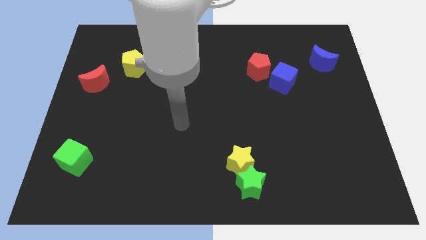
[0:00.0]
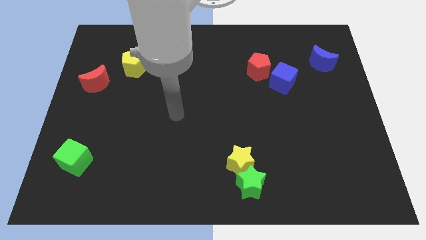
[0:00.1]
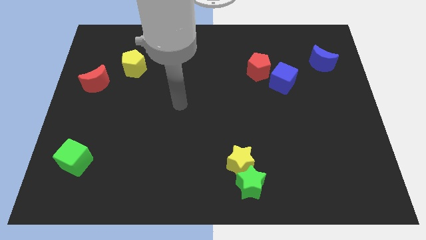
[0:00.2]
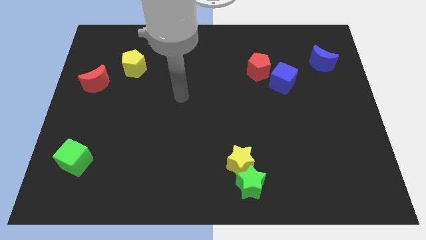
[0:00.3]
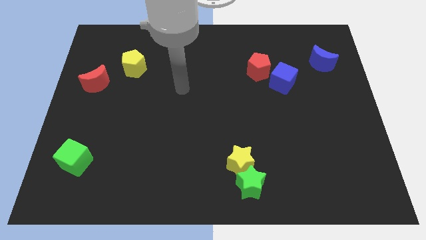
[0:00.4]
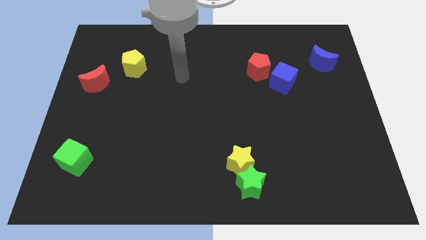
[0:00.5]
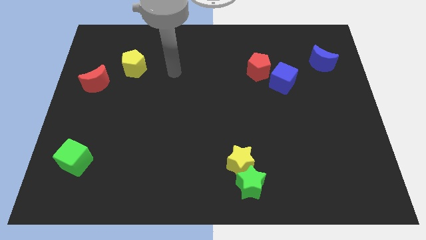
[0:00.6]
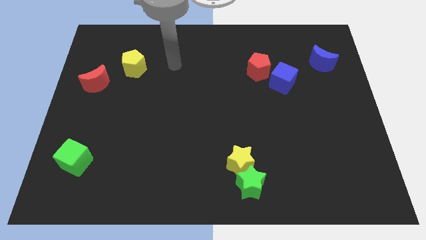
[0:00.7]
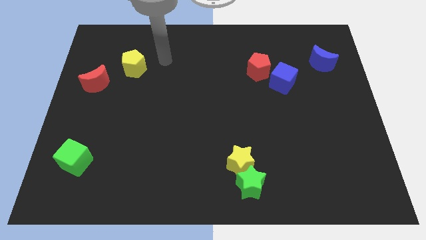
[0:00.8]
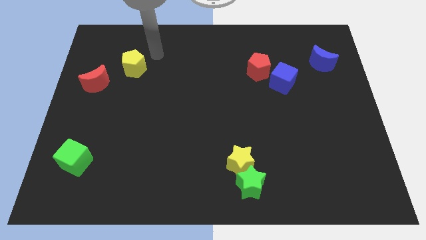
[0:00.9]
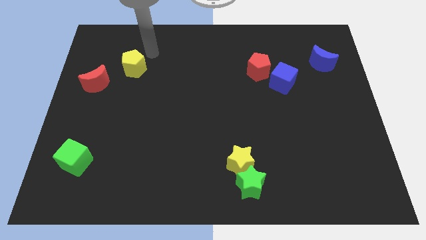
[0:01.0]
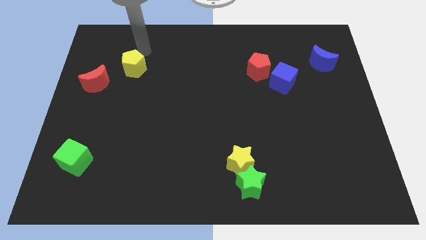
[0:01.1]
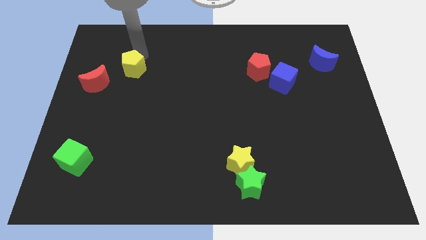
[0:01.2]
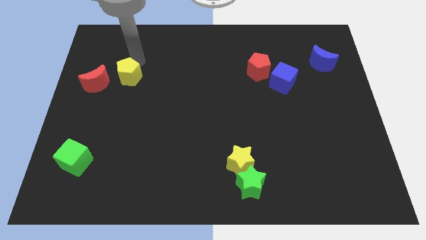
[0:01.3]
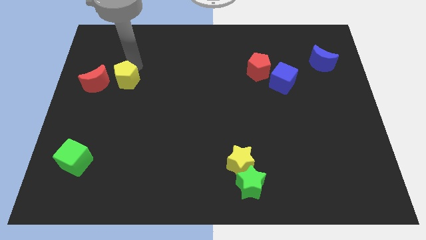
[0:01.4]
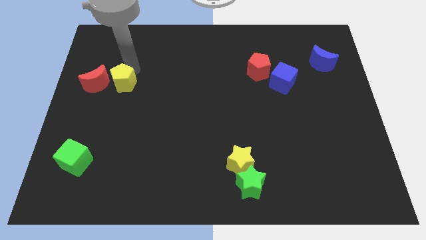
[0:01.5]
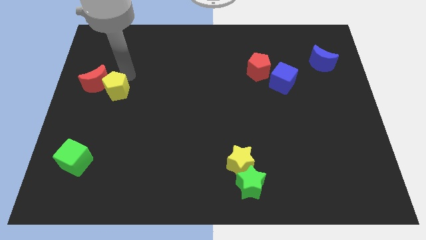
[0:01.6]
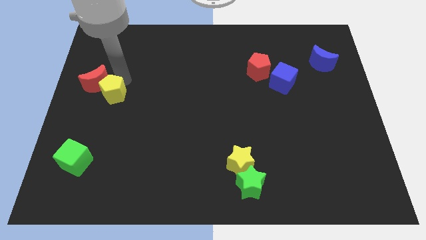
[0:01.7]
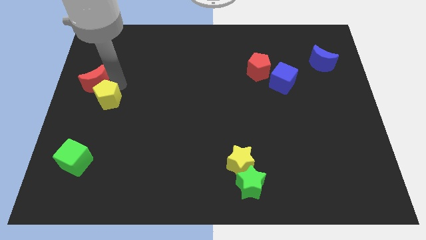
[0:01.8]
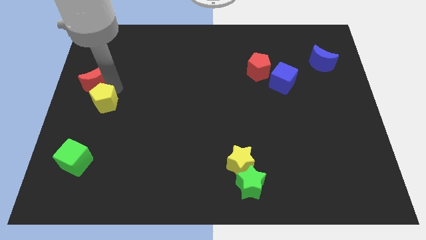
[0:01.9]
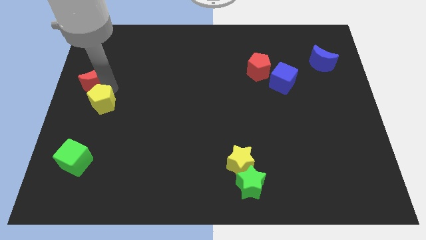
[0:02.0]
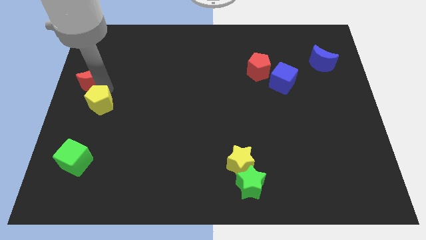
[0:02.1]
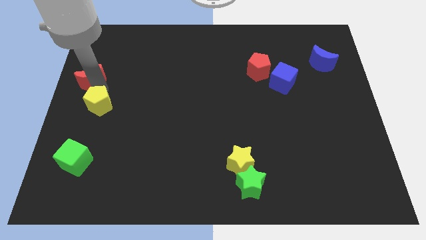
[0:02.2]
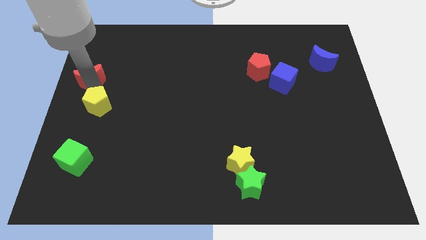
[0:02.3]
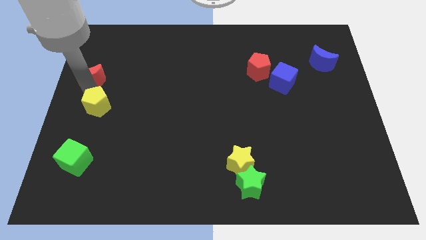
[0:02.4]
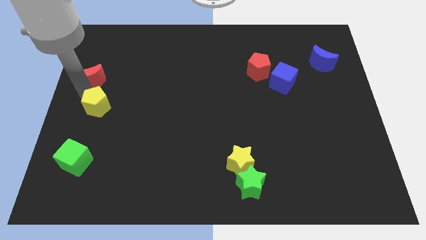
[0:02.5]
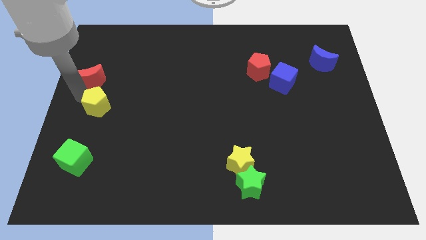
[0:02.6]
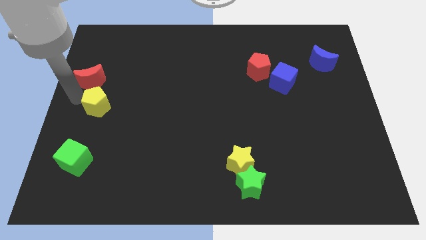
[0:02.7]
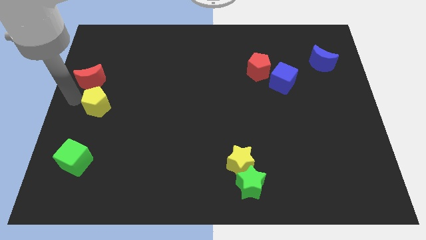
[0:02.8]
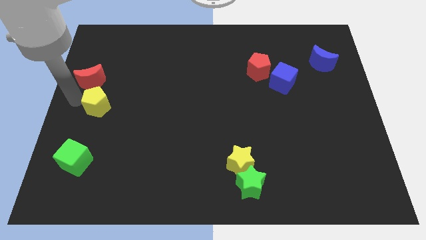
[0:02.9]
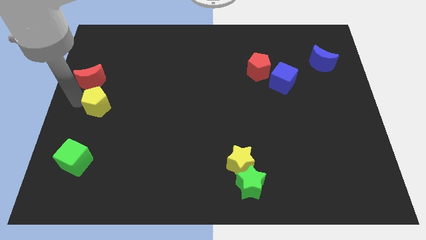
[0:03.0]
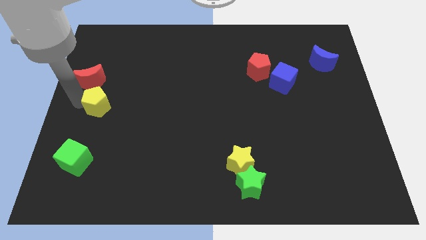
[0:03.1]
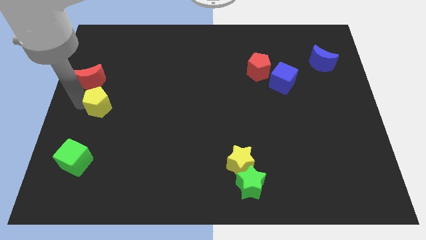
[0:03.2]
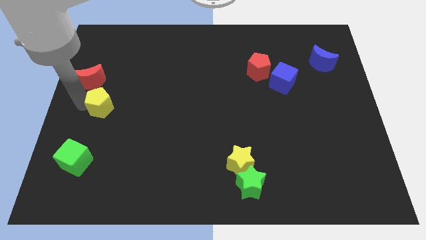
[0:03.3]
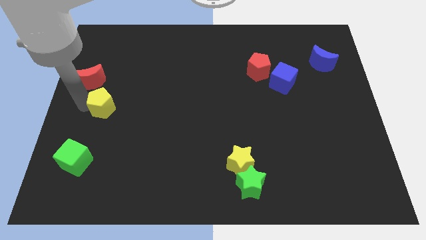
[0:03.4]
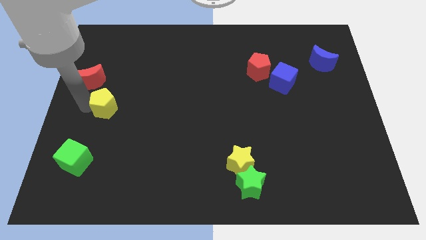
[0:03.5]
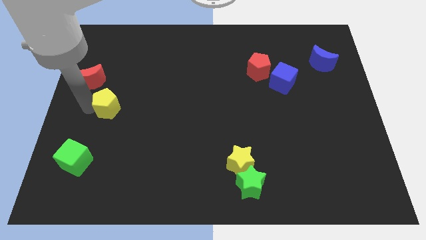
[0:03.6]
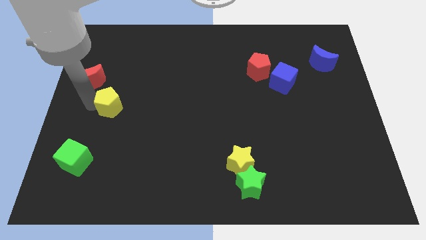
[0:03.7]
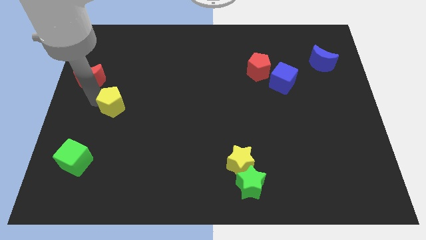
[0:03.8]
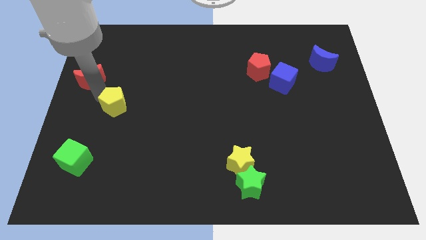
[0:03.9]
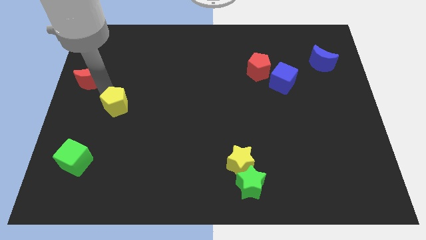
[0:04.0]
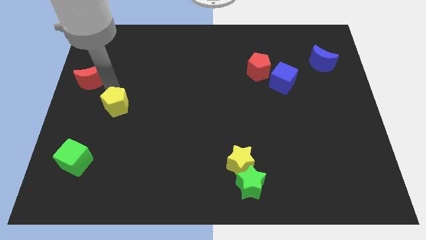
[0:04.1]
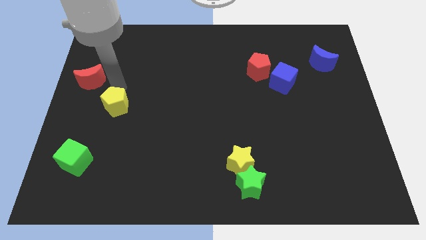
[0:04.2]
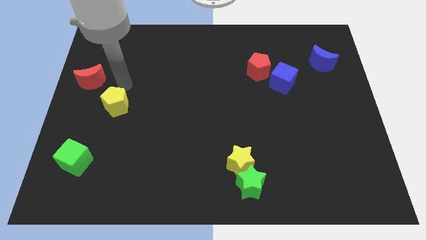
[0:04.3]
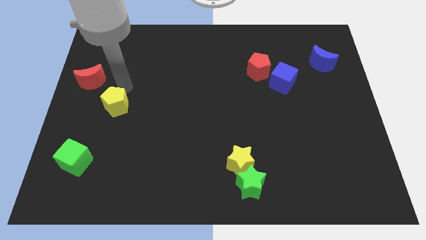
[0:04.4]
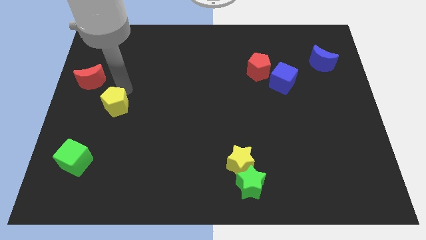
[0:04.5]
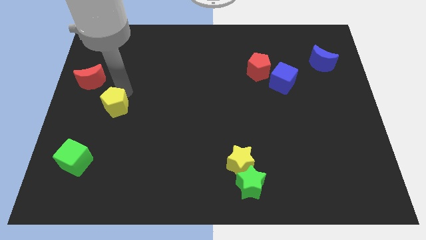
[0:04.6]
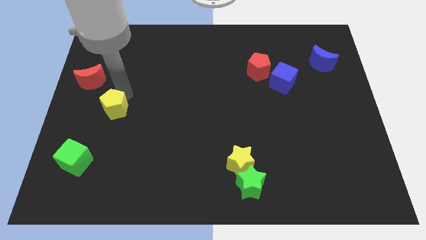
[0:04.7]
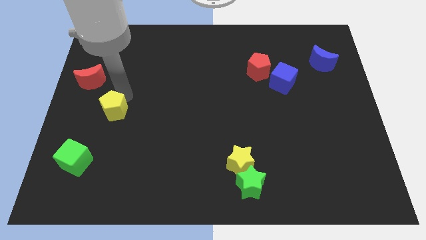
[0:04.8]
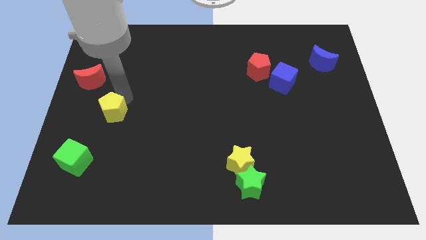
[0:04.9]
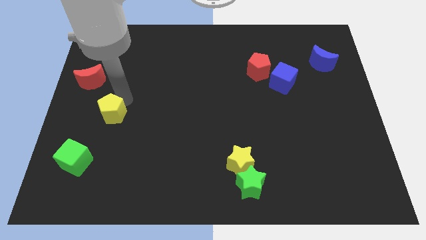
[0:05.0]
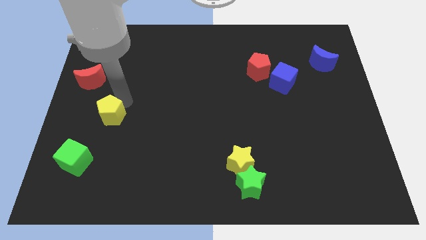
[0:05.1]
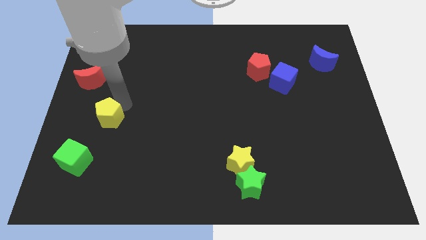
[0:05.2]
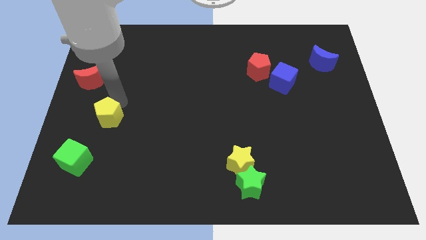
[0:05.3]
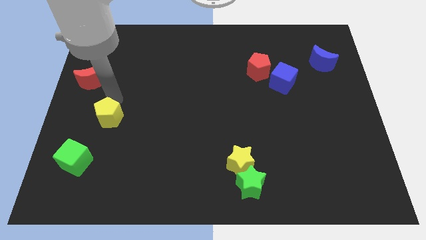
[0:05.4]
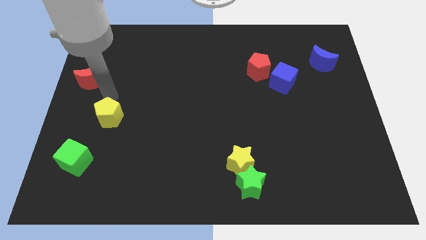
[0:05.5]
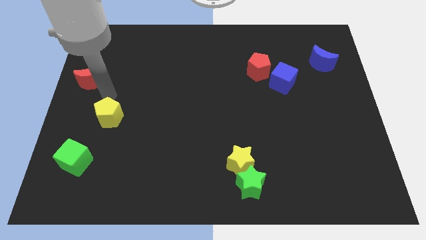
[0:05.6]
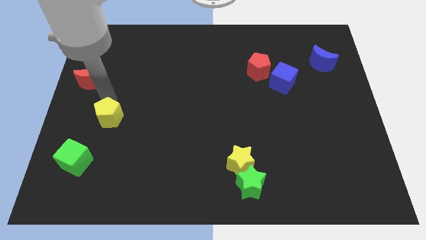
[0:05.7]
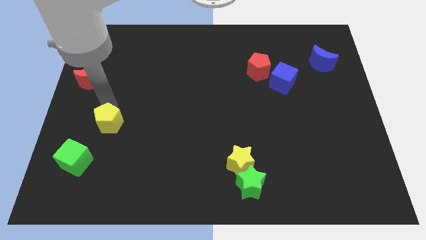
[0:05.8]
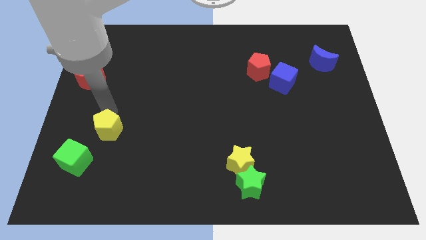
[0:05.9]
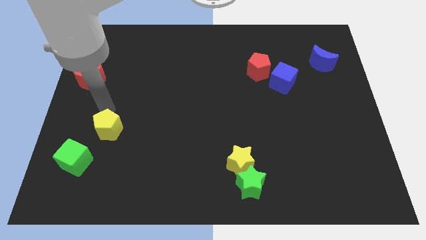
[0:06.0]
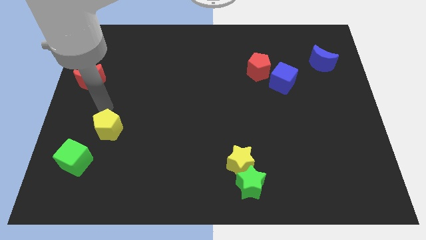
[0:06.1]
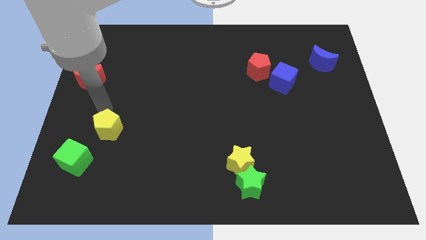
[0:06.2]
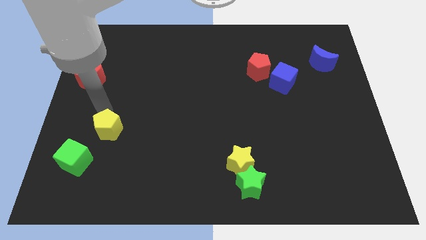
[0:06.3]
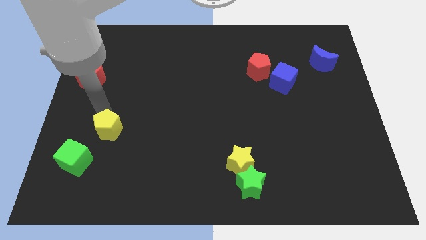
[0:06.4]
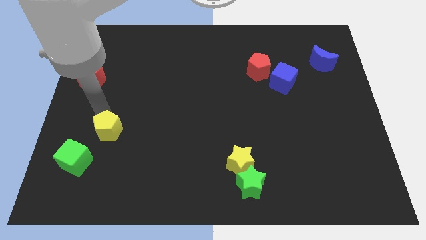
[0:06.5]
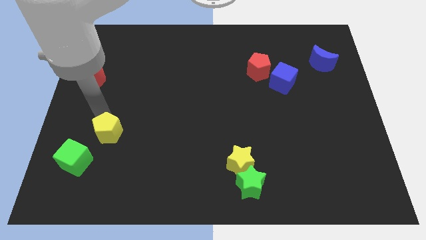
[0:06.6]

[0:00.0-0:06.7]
slide the yellow pentagon down

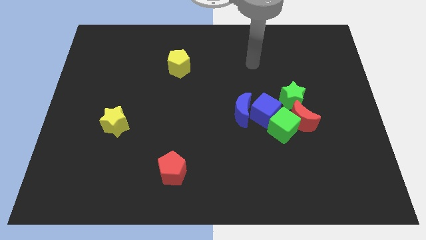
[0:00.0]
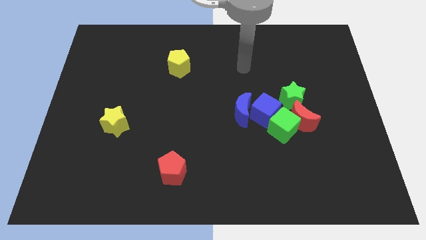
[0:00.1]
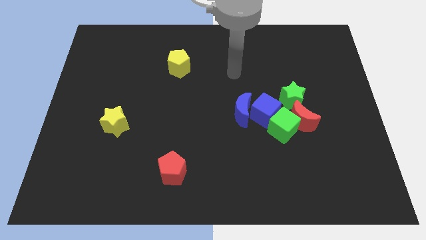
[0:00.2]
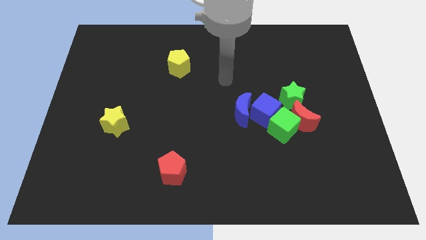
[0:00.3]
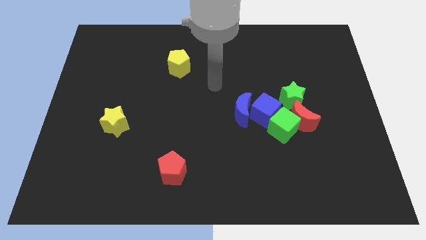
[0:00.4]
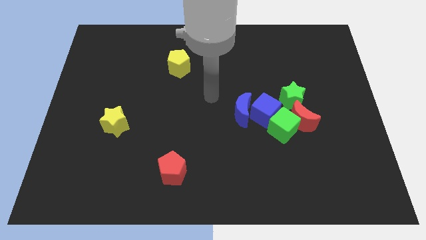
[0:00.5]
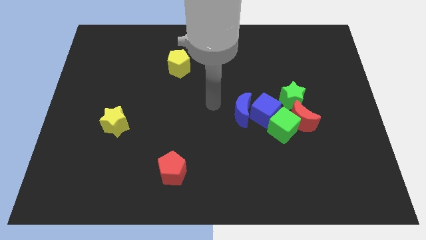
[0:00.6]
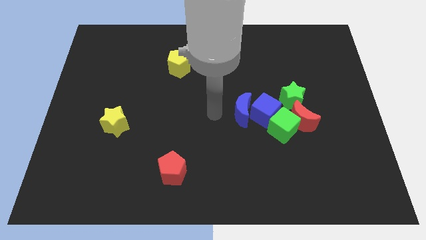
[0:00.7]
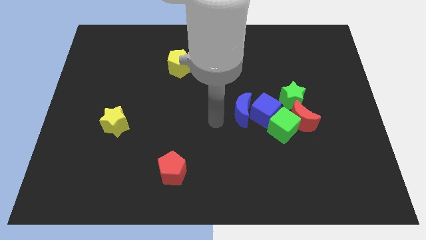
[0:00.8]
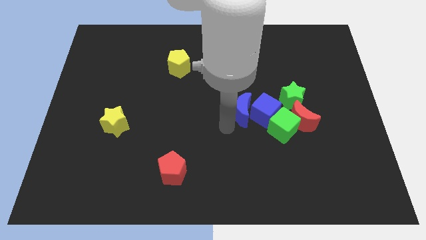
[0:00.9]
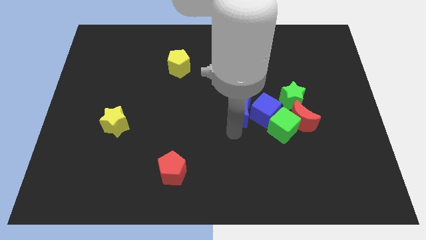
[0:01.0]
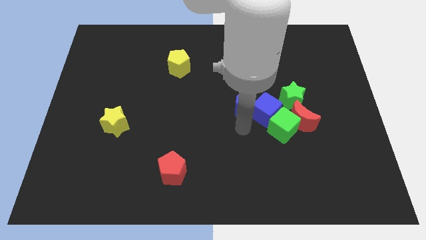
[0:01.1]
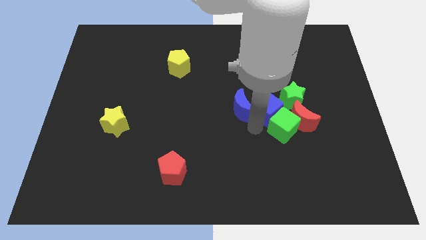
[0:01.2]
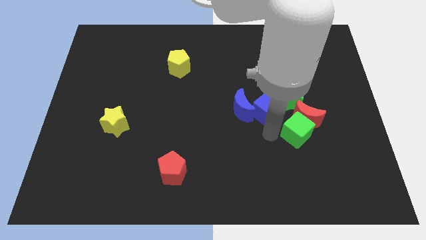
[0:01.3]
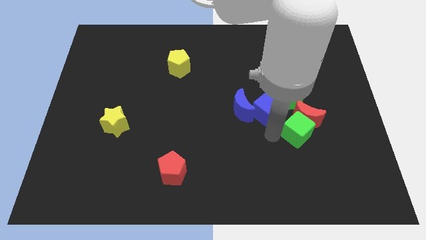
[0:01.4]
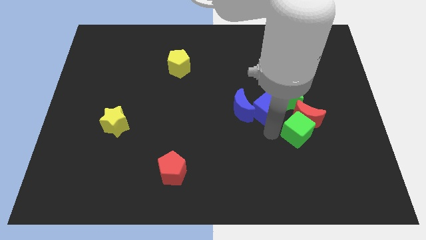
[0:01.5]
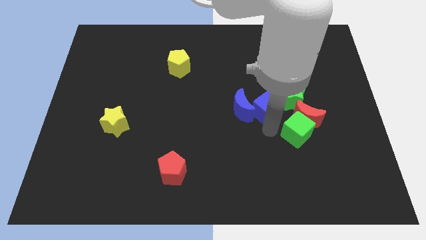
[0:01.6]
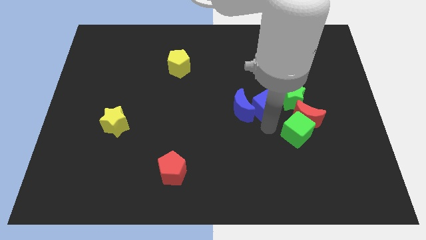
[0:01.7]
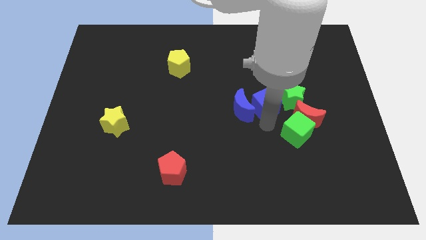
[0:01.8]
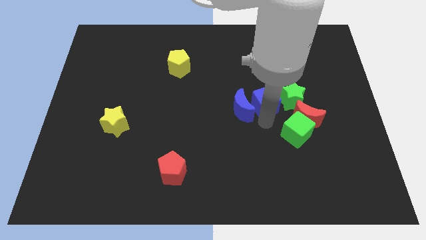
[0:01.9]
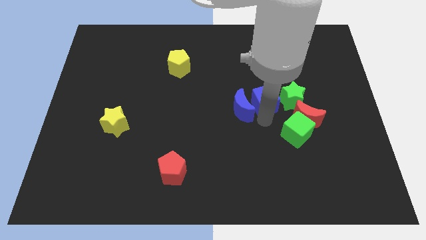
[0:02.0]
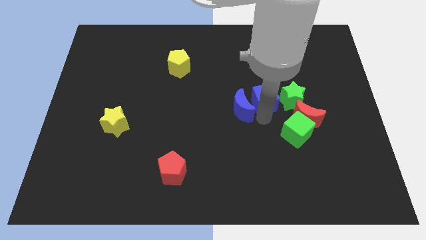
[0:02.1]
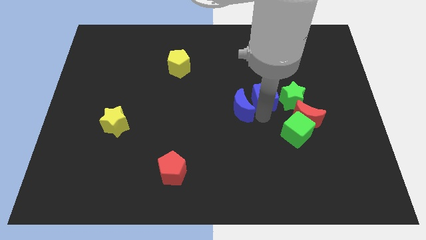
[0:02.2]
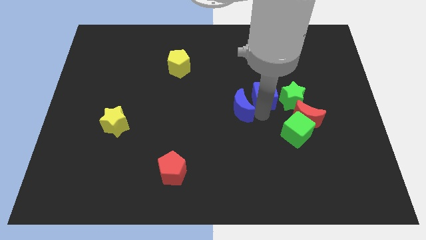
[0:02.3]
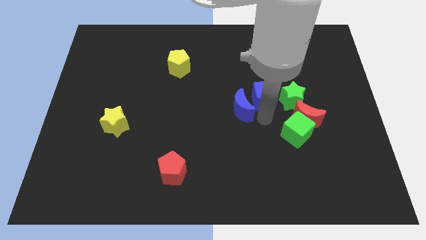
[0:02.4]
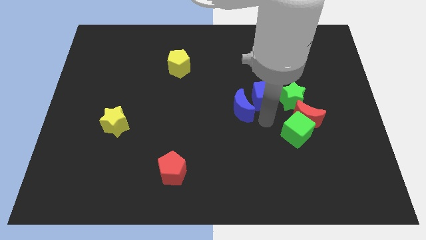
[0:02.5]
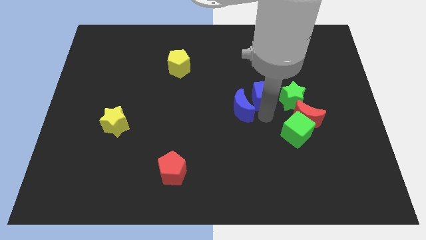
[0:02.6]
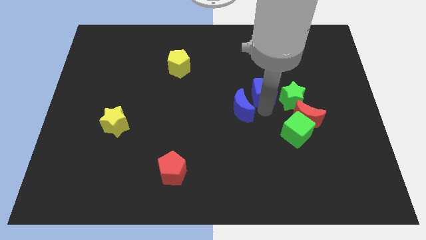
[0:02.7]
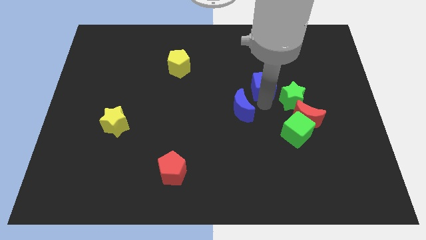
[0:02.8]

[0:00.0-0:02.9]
push the blue cube up a bit
